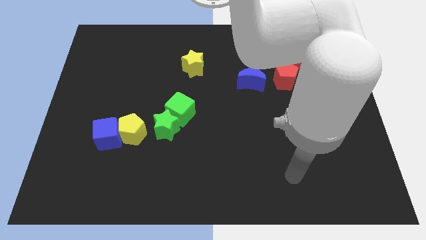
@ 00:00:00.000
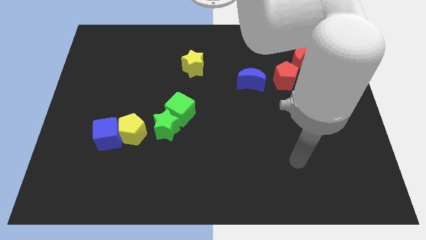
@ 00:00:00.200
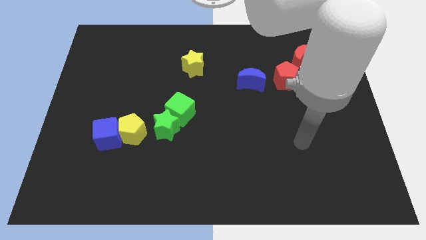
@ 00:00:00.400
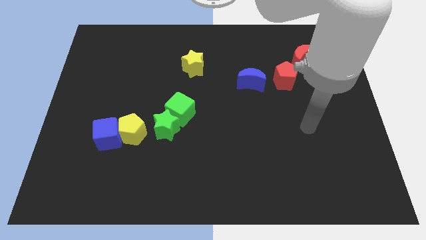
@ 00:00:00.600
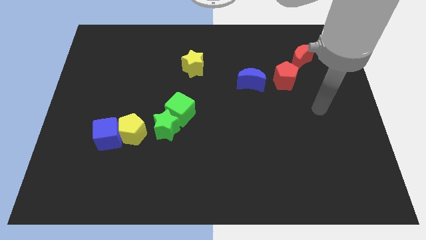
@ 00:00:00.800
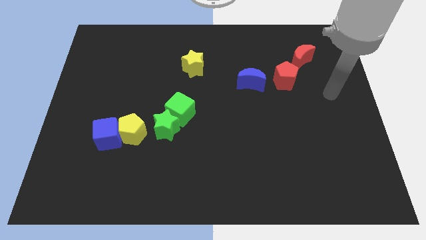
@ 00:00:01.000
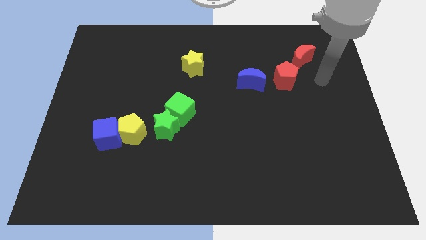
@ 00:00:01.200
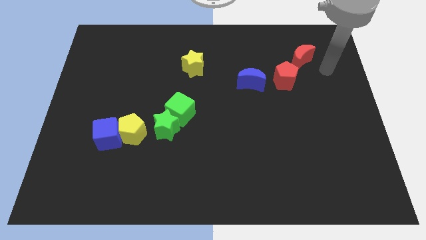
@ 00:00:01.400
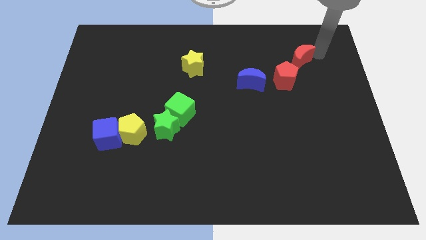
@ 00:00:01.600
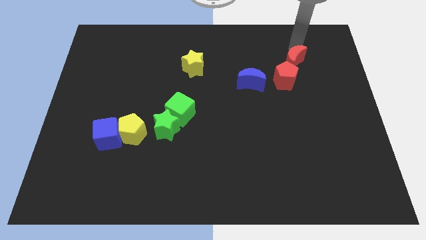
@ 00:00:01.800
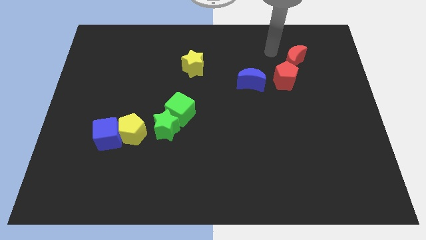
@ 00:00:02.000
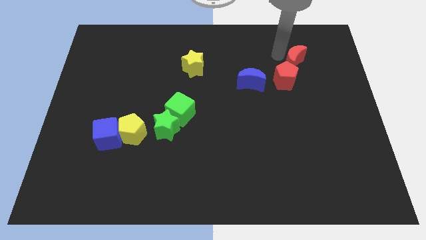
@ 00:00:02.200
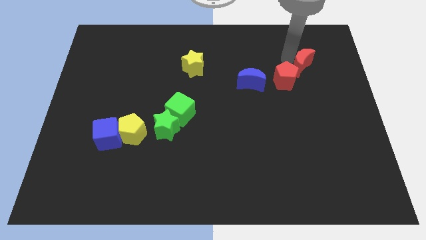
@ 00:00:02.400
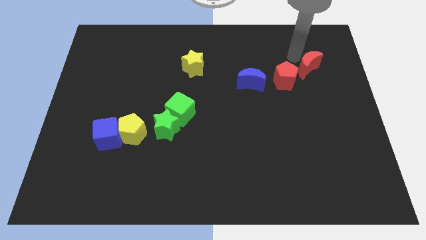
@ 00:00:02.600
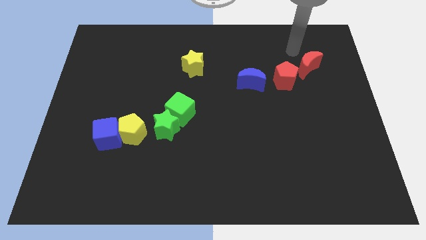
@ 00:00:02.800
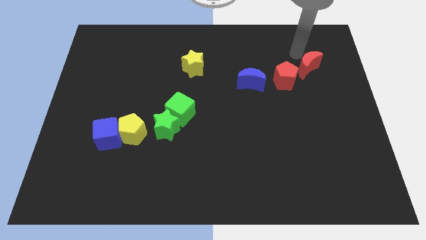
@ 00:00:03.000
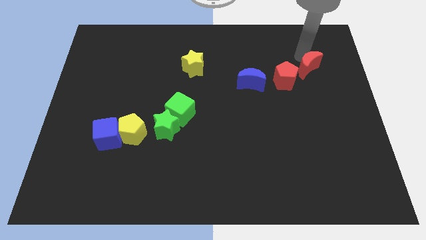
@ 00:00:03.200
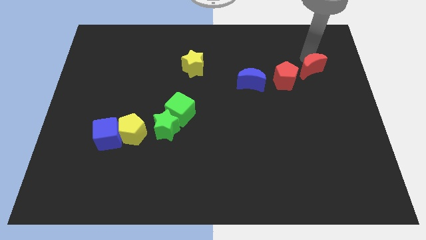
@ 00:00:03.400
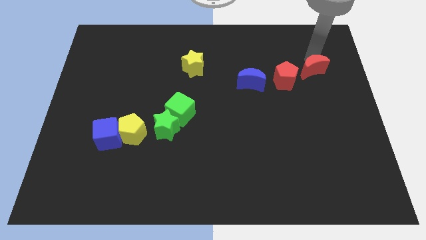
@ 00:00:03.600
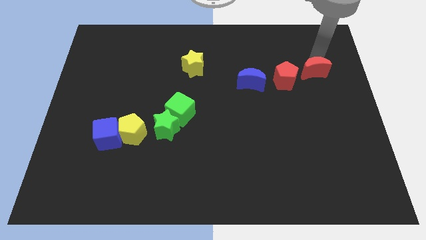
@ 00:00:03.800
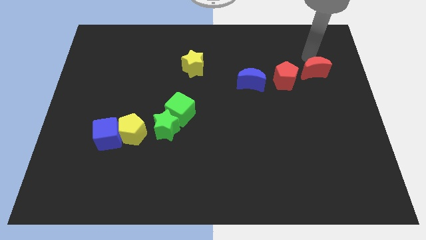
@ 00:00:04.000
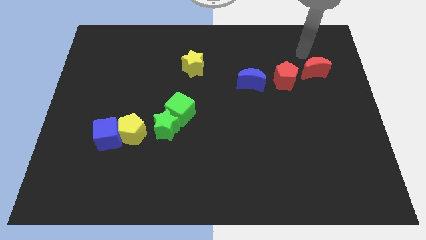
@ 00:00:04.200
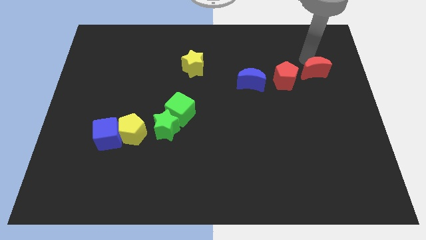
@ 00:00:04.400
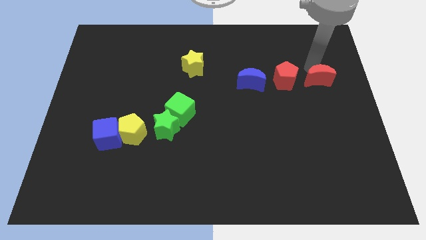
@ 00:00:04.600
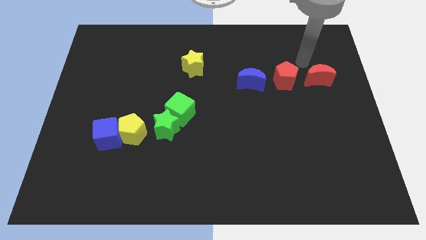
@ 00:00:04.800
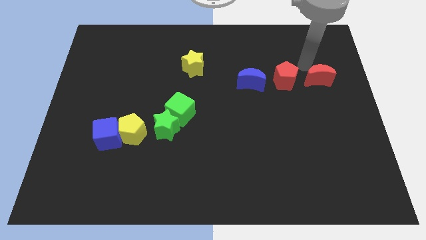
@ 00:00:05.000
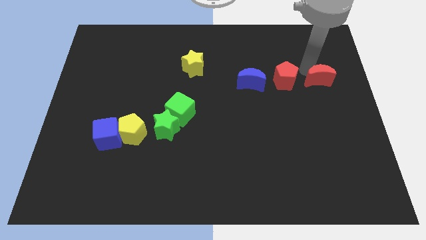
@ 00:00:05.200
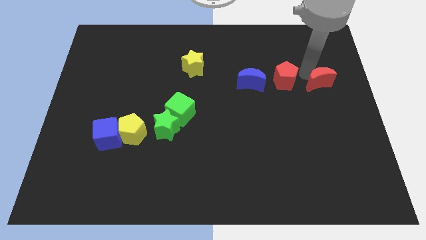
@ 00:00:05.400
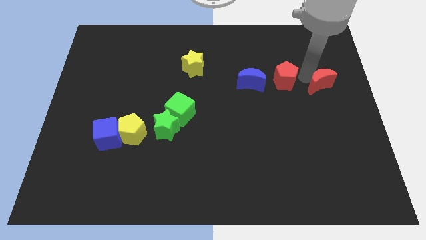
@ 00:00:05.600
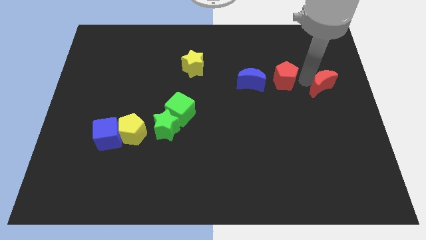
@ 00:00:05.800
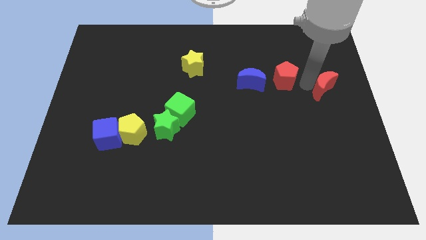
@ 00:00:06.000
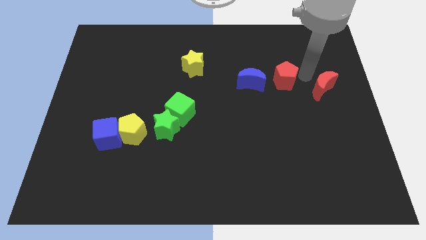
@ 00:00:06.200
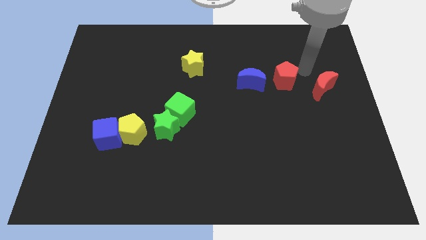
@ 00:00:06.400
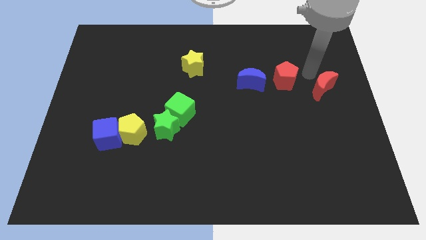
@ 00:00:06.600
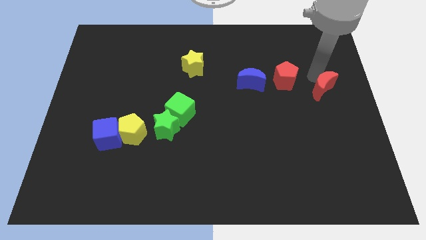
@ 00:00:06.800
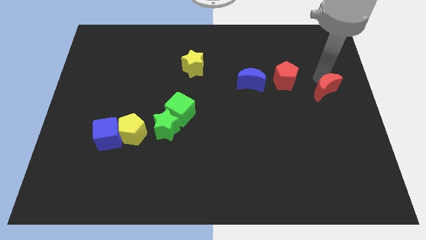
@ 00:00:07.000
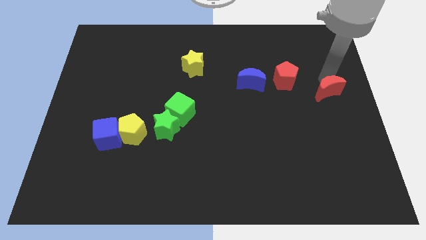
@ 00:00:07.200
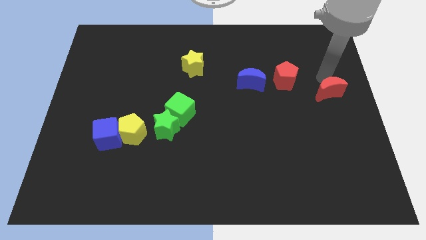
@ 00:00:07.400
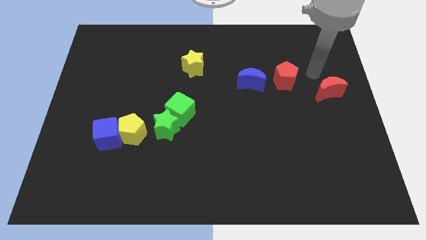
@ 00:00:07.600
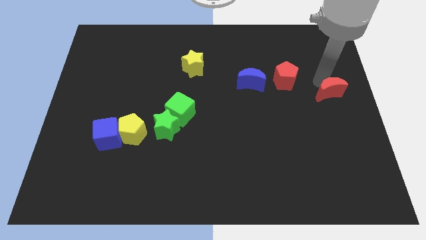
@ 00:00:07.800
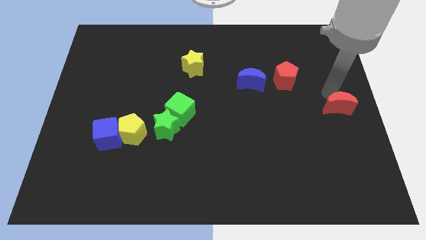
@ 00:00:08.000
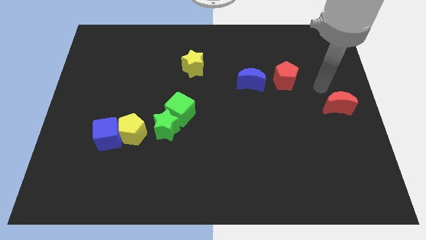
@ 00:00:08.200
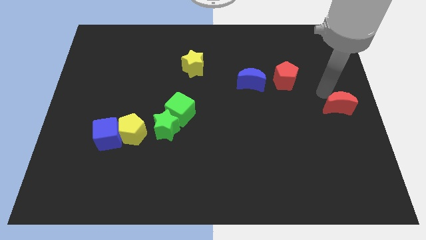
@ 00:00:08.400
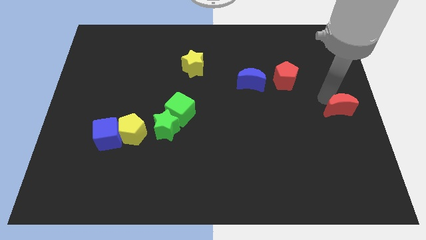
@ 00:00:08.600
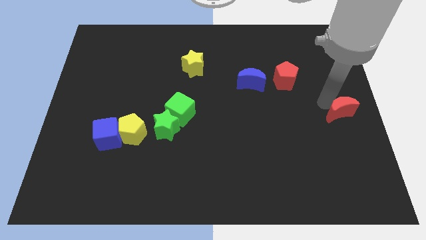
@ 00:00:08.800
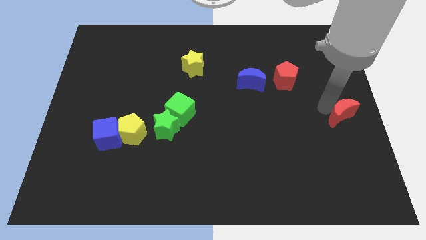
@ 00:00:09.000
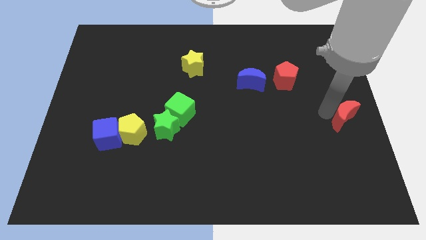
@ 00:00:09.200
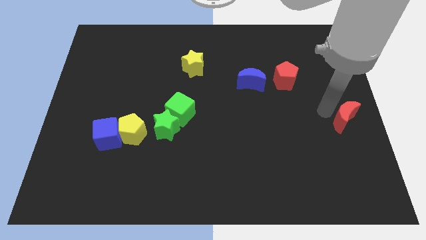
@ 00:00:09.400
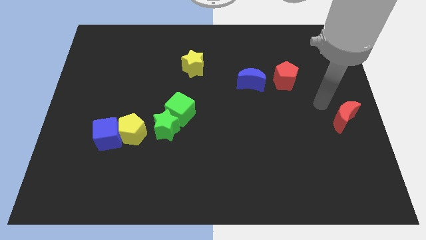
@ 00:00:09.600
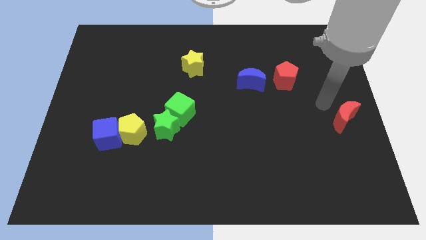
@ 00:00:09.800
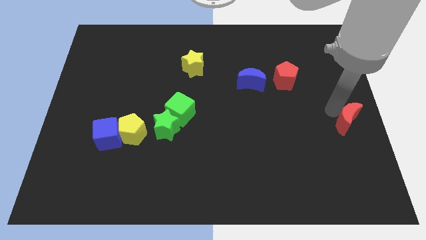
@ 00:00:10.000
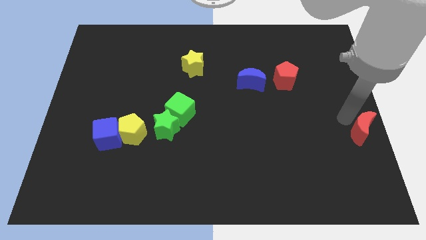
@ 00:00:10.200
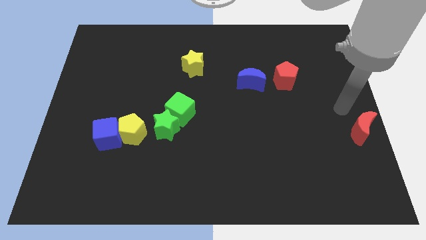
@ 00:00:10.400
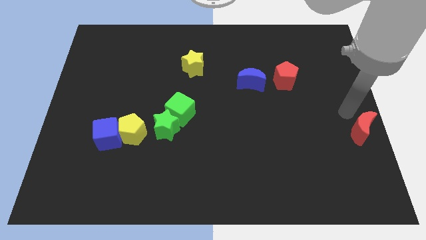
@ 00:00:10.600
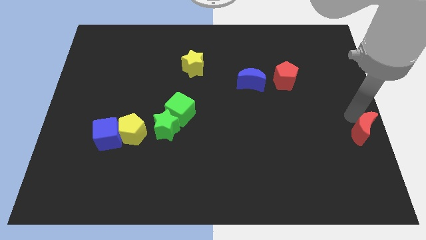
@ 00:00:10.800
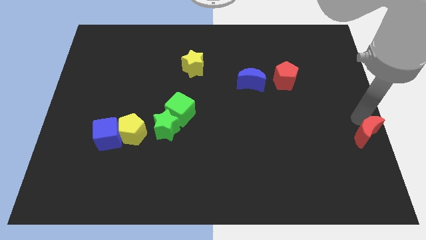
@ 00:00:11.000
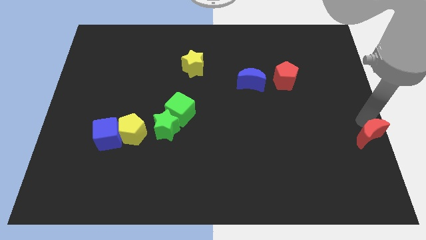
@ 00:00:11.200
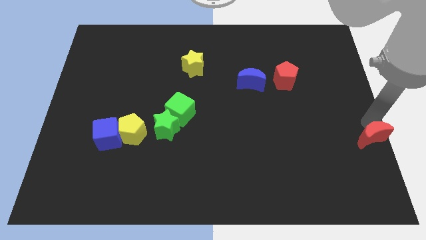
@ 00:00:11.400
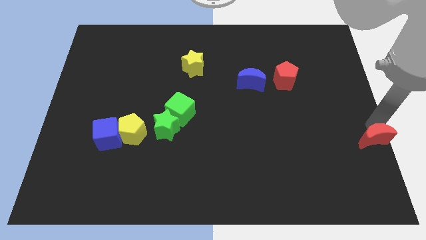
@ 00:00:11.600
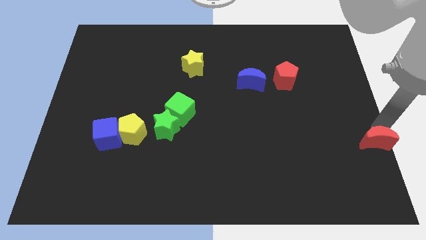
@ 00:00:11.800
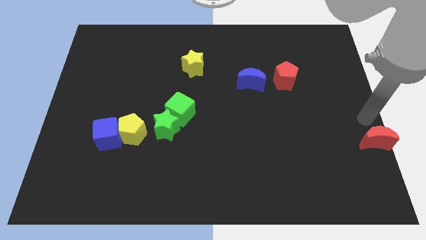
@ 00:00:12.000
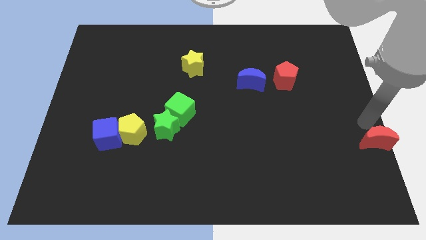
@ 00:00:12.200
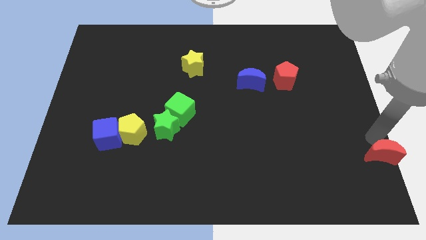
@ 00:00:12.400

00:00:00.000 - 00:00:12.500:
put the red moon to the bottom right
